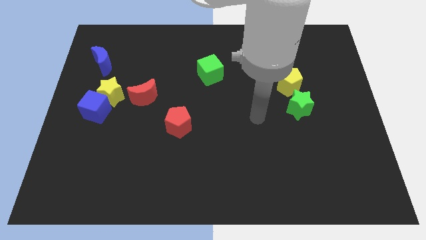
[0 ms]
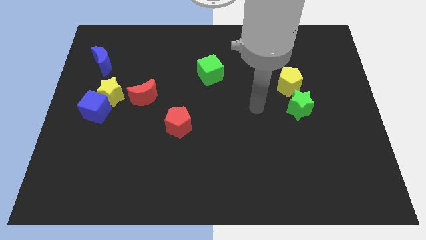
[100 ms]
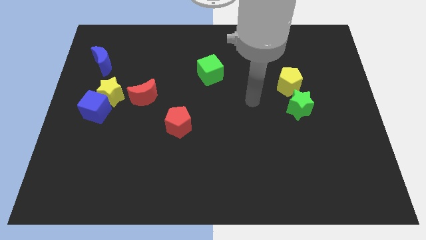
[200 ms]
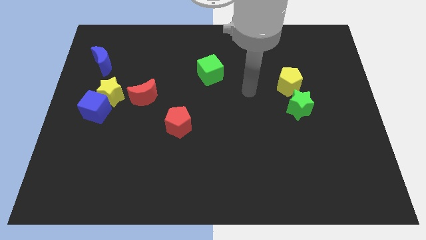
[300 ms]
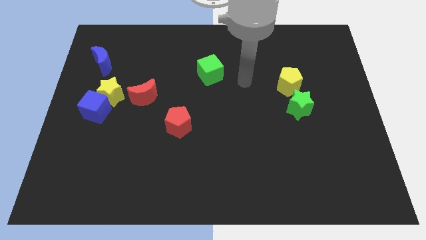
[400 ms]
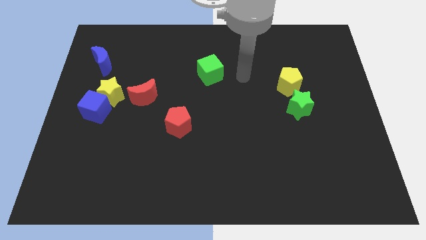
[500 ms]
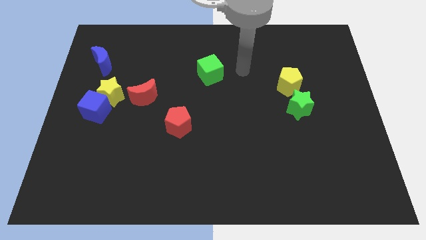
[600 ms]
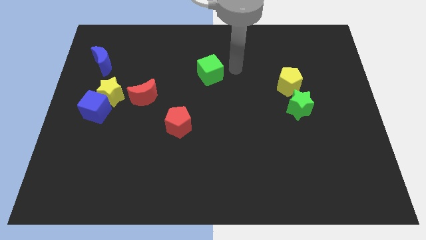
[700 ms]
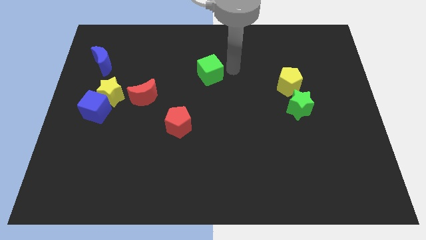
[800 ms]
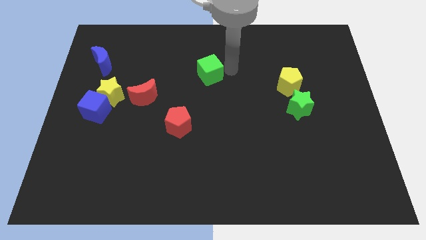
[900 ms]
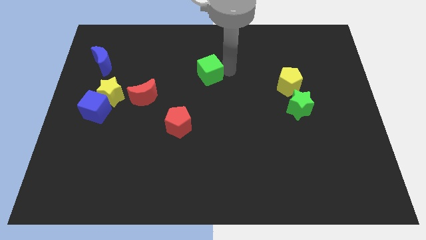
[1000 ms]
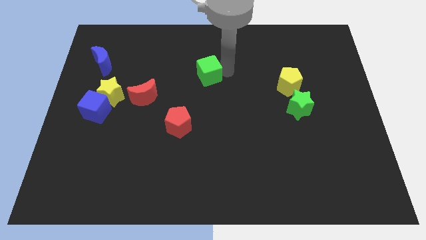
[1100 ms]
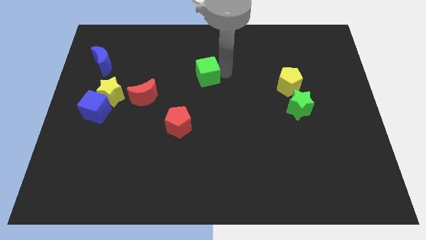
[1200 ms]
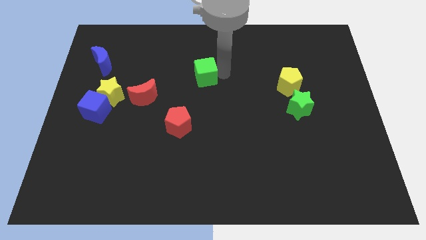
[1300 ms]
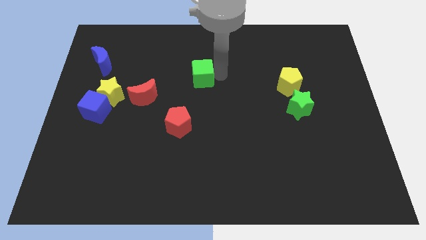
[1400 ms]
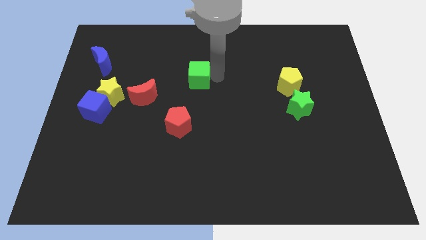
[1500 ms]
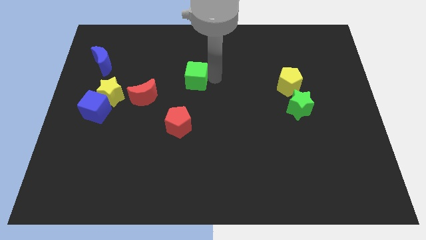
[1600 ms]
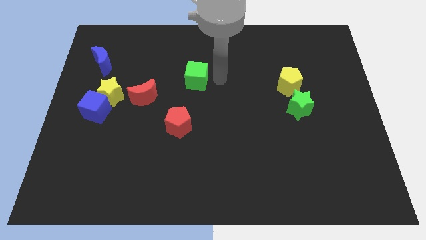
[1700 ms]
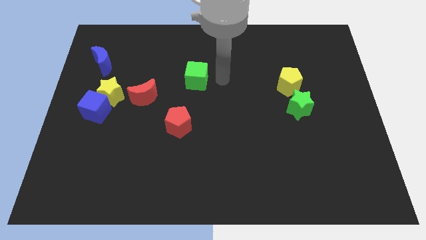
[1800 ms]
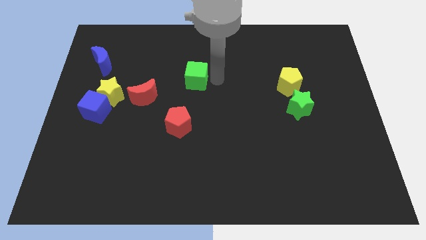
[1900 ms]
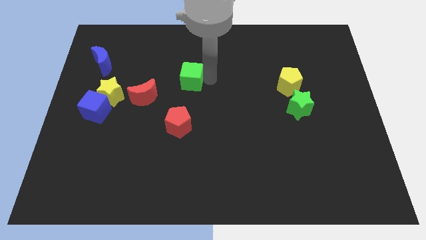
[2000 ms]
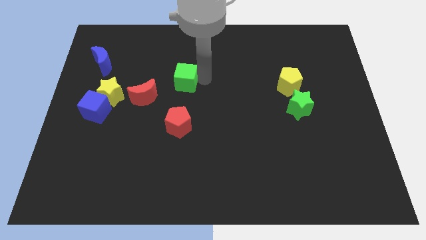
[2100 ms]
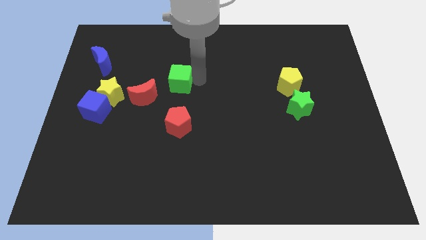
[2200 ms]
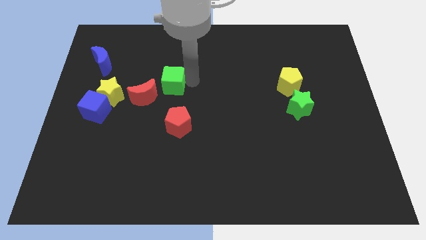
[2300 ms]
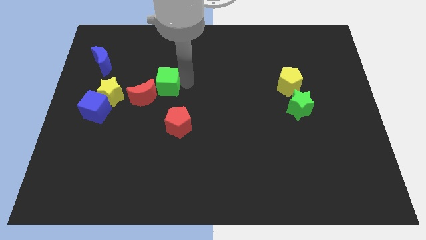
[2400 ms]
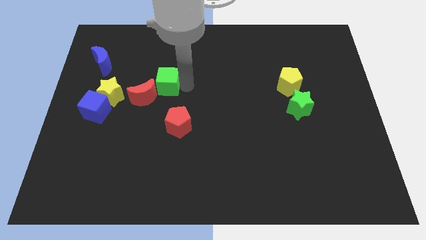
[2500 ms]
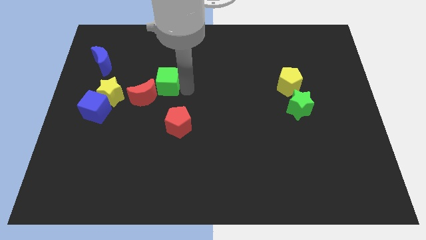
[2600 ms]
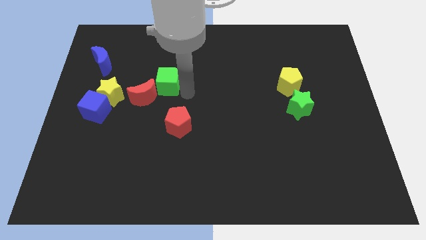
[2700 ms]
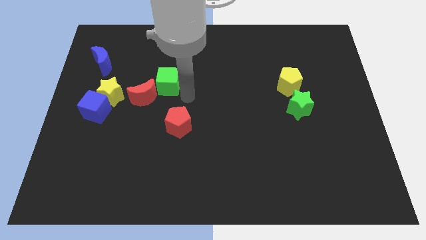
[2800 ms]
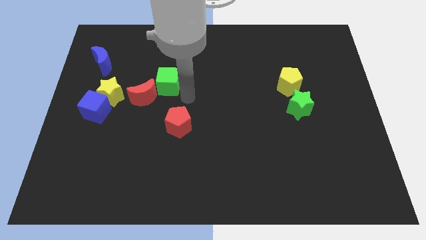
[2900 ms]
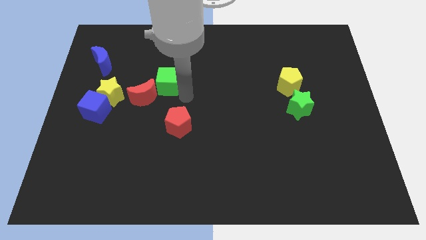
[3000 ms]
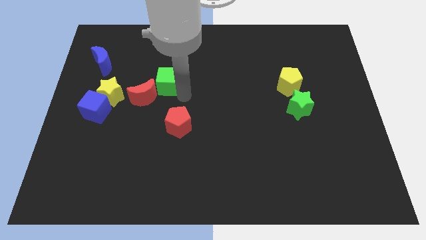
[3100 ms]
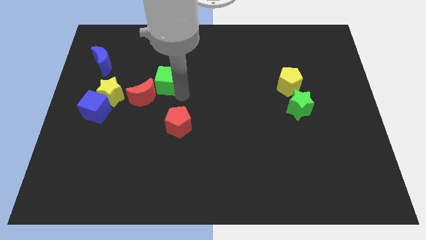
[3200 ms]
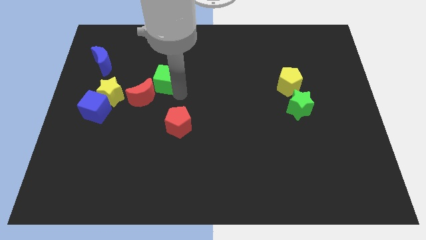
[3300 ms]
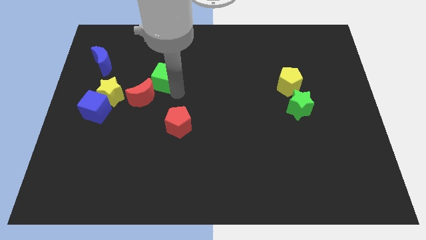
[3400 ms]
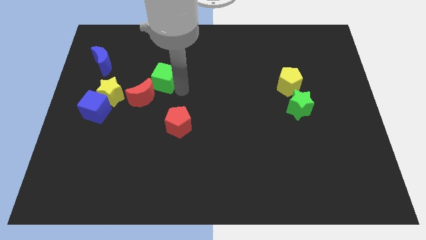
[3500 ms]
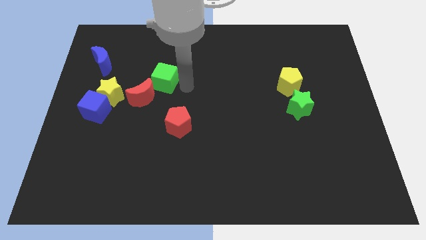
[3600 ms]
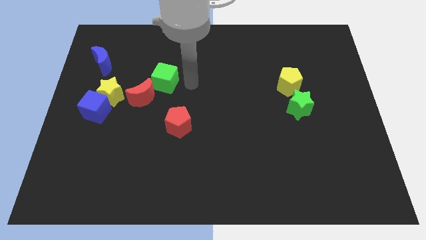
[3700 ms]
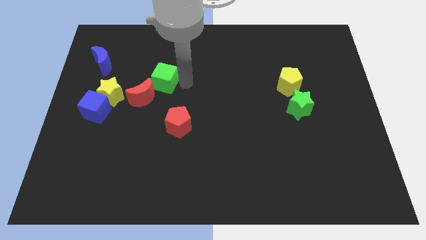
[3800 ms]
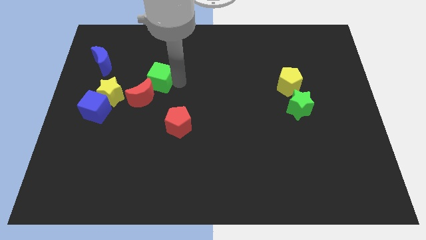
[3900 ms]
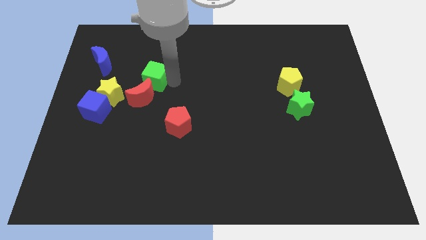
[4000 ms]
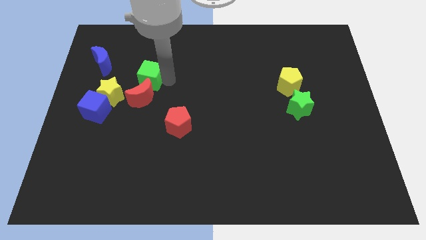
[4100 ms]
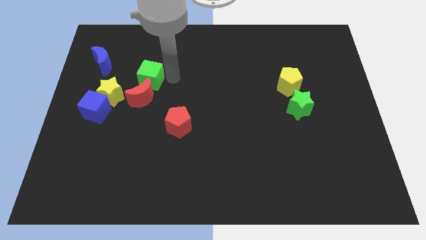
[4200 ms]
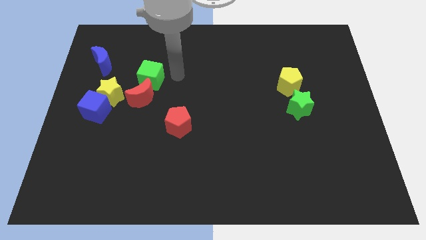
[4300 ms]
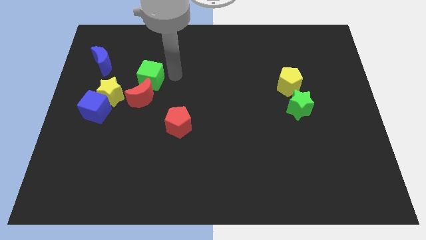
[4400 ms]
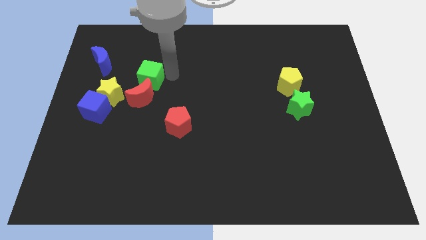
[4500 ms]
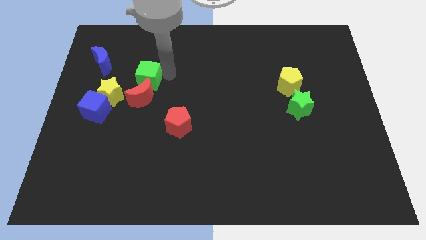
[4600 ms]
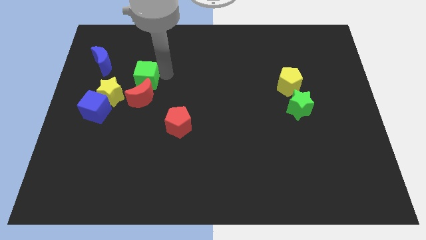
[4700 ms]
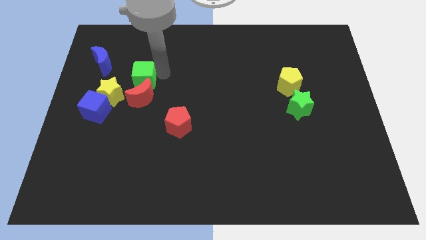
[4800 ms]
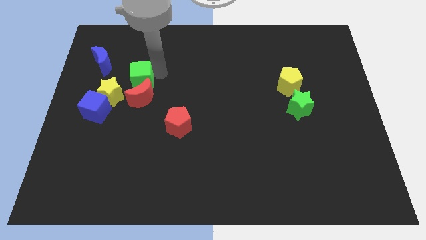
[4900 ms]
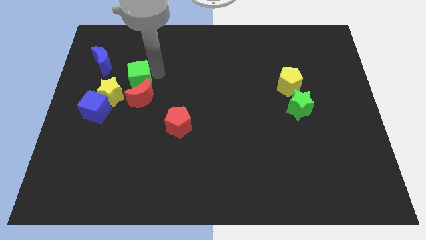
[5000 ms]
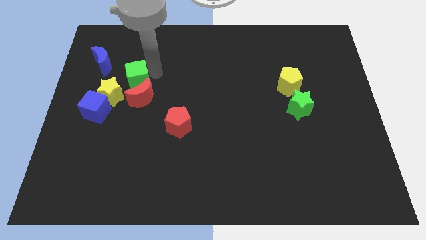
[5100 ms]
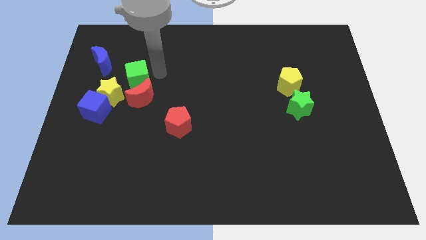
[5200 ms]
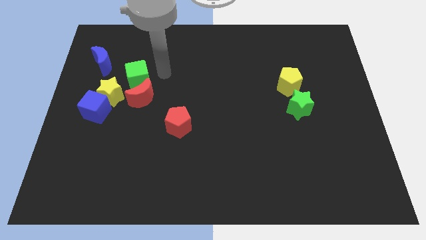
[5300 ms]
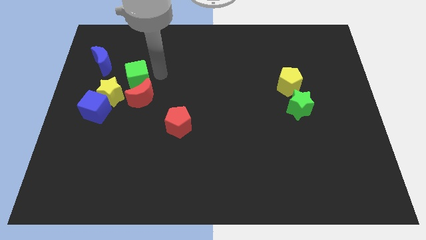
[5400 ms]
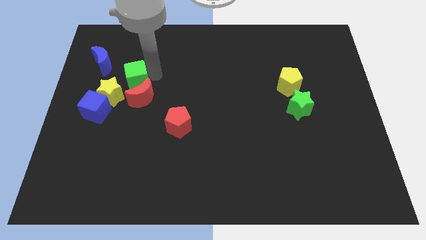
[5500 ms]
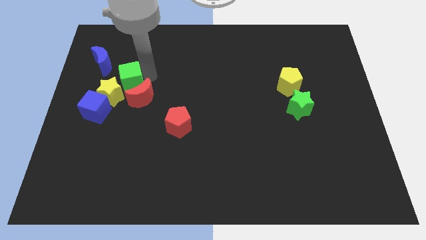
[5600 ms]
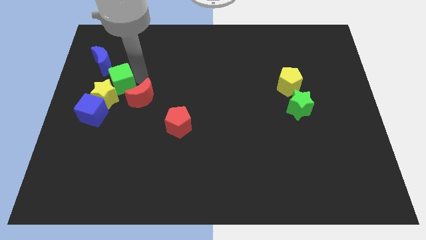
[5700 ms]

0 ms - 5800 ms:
move the green cube to the left of the red moon

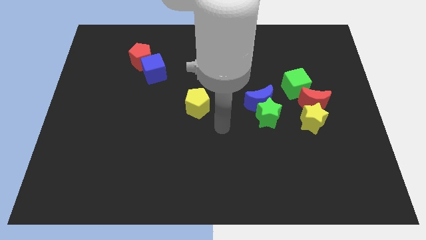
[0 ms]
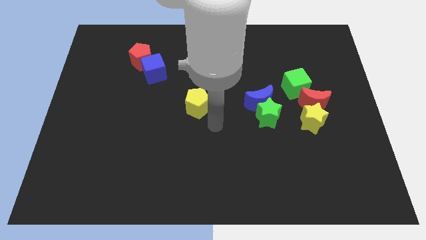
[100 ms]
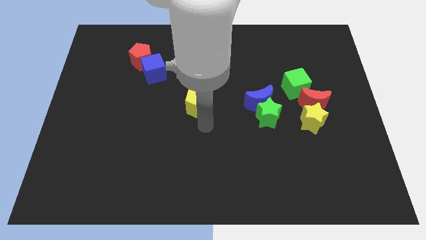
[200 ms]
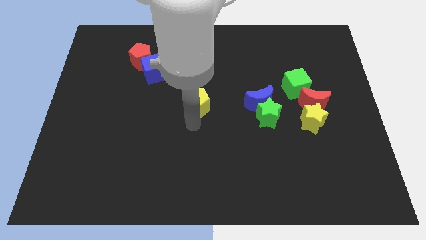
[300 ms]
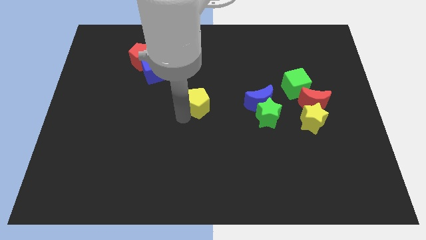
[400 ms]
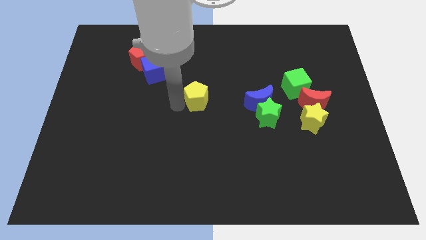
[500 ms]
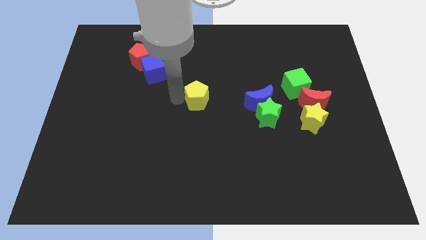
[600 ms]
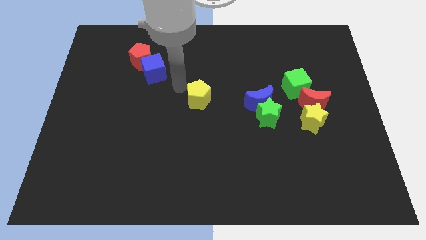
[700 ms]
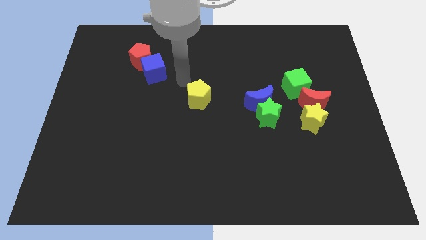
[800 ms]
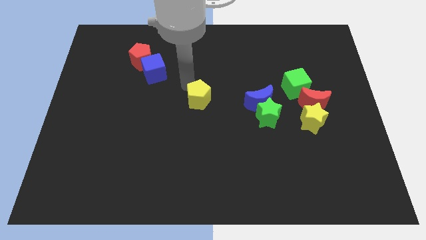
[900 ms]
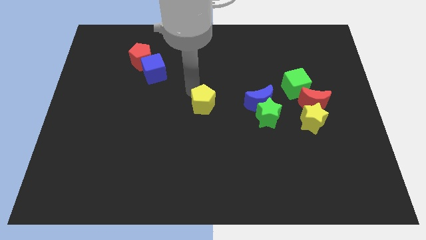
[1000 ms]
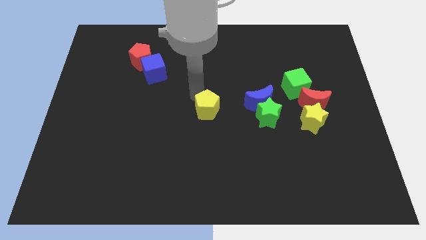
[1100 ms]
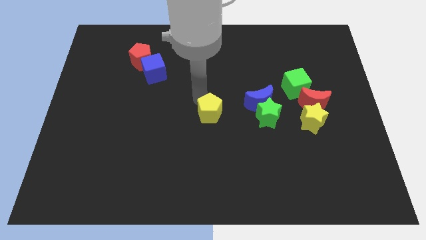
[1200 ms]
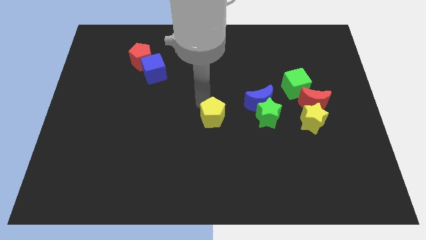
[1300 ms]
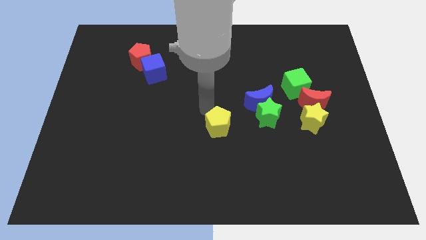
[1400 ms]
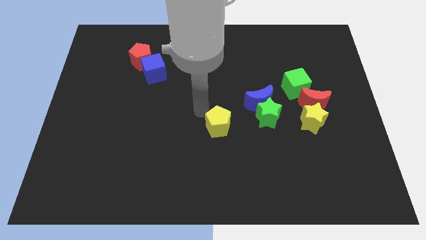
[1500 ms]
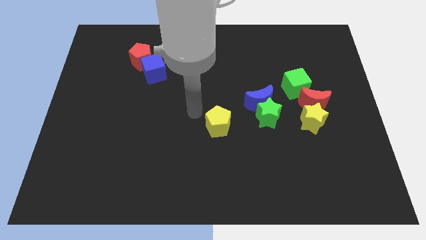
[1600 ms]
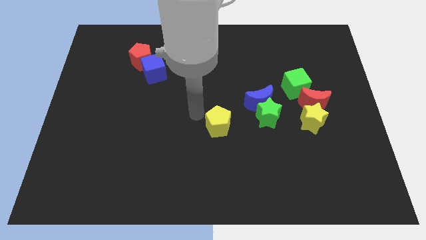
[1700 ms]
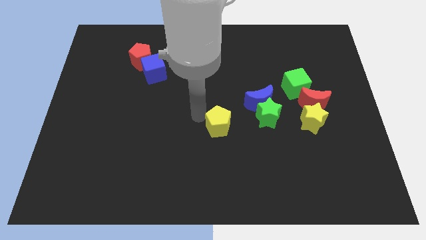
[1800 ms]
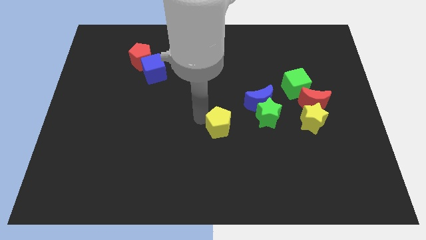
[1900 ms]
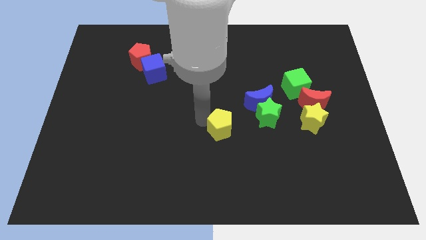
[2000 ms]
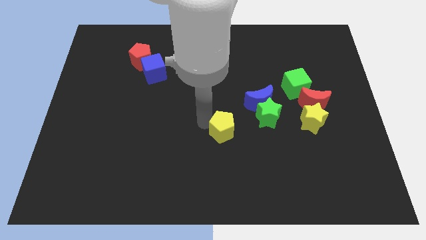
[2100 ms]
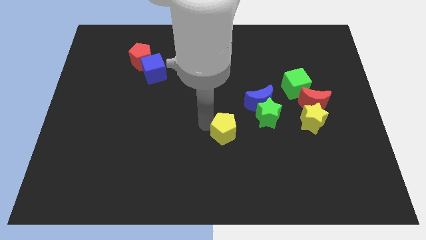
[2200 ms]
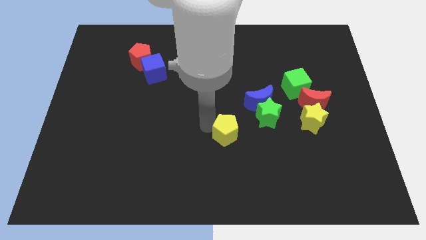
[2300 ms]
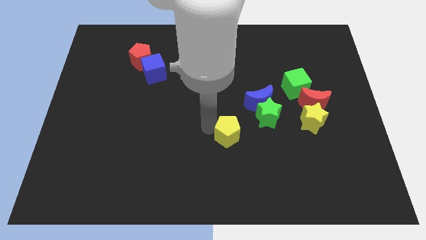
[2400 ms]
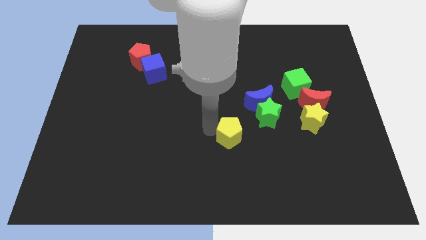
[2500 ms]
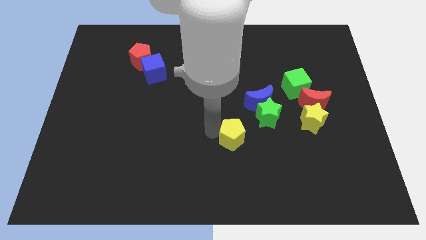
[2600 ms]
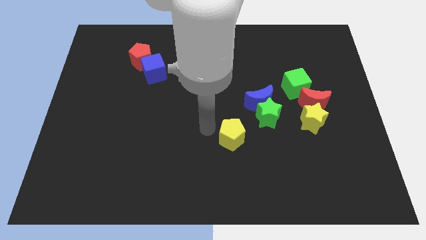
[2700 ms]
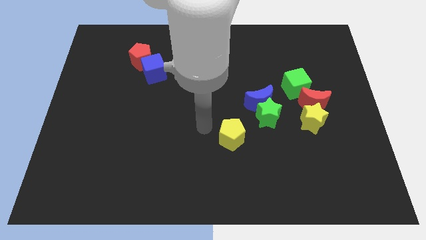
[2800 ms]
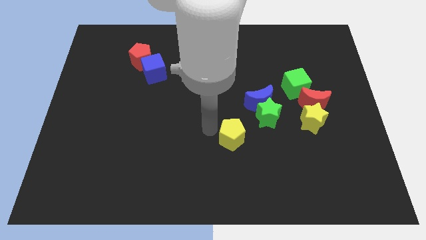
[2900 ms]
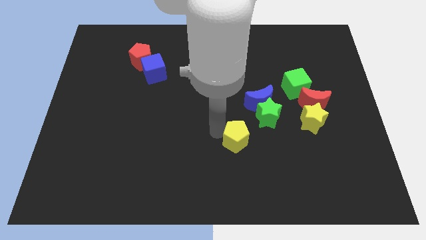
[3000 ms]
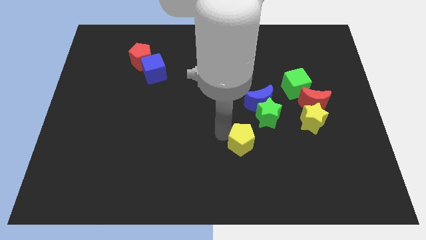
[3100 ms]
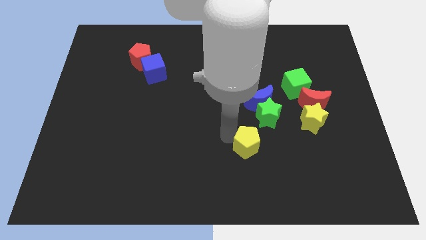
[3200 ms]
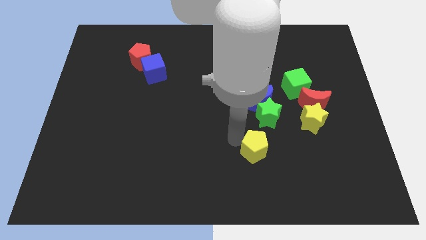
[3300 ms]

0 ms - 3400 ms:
slide the yellow pentagon to the bottom side of the green star
